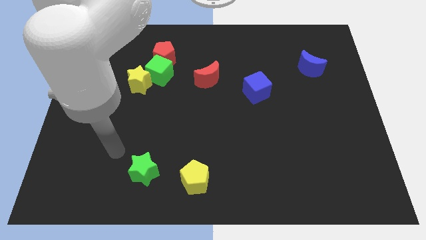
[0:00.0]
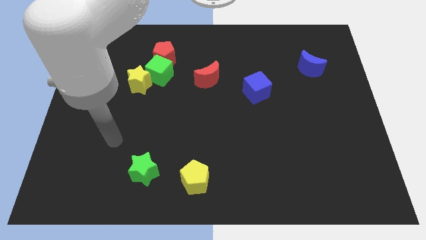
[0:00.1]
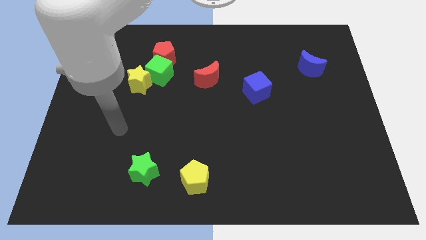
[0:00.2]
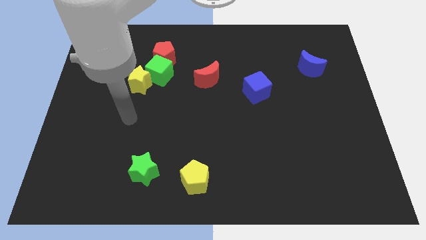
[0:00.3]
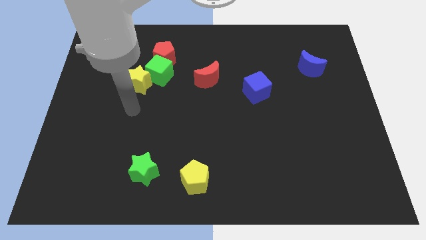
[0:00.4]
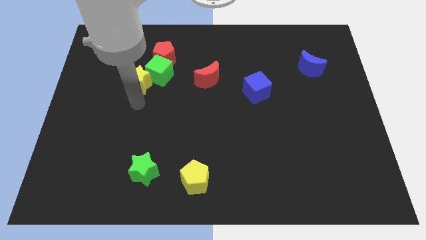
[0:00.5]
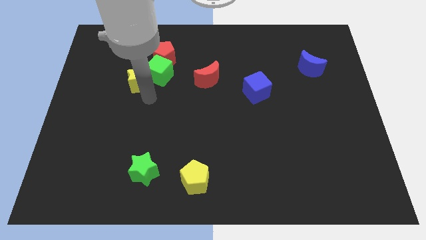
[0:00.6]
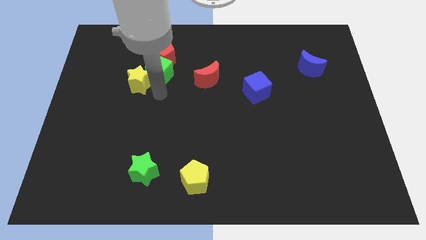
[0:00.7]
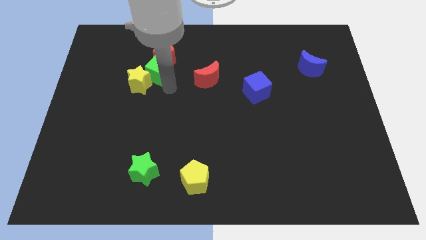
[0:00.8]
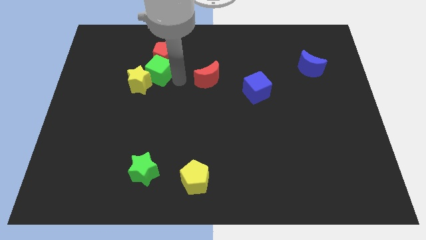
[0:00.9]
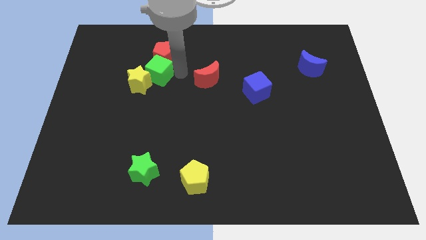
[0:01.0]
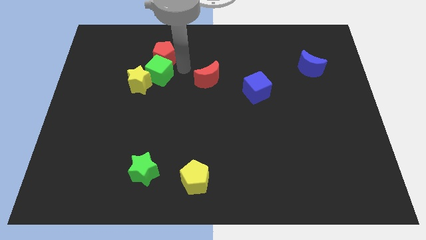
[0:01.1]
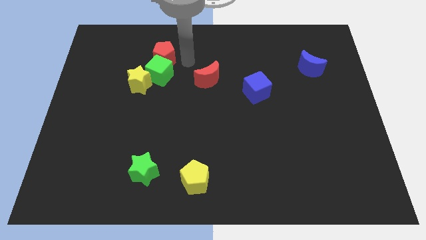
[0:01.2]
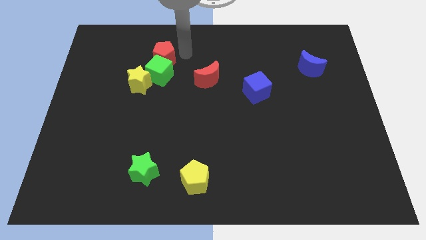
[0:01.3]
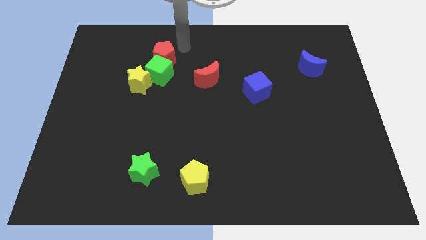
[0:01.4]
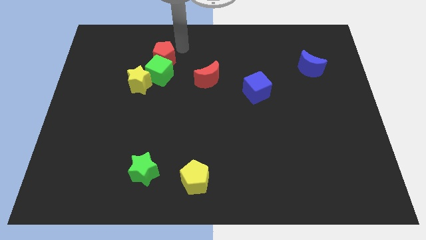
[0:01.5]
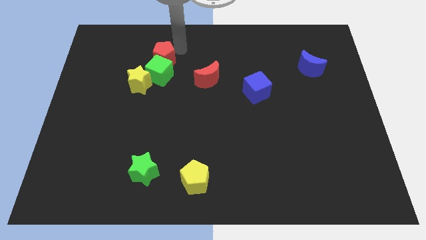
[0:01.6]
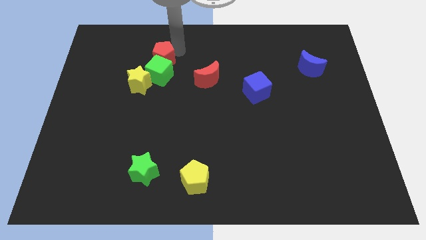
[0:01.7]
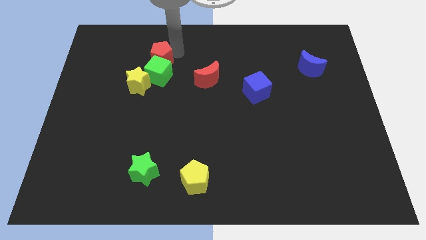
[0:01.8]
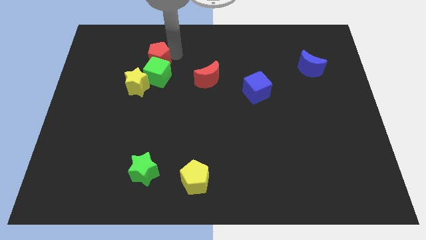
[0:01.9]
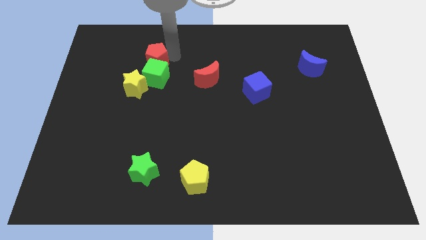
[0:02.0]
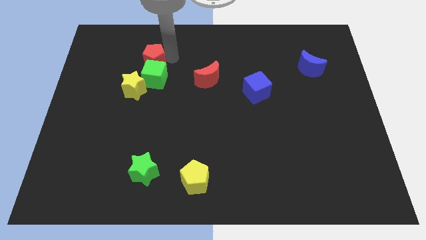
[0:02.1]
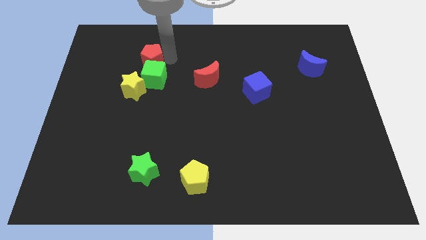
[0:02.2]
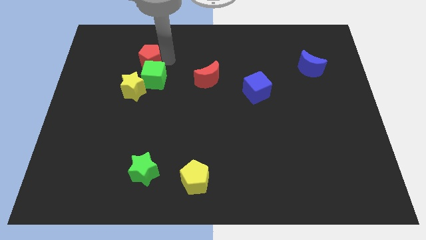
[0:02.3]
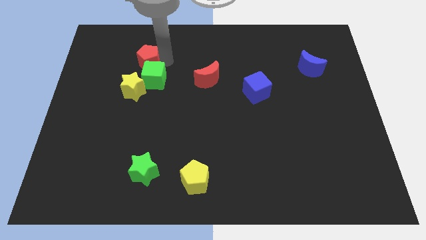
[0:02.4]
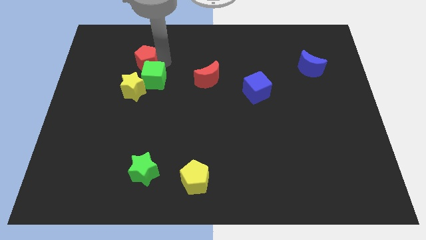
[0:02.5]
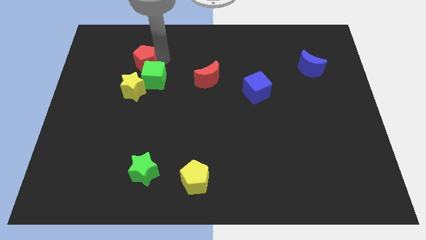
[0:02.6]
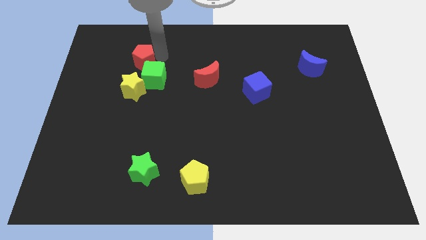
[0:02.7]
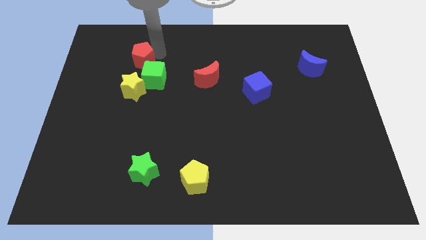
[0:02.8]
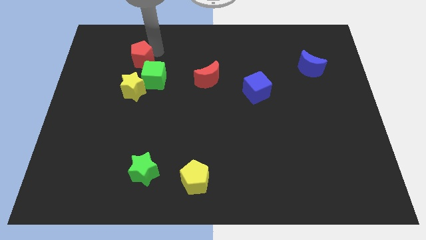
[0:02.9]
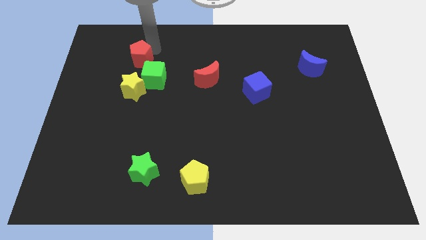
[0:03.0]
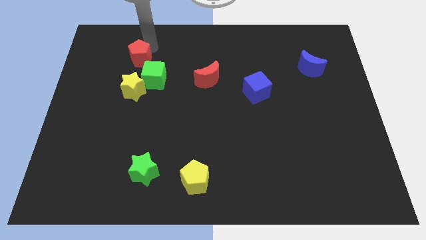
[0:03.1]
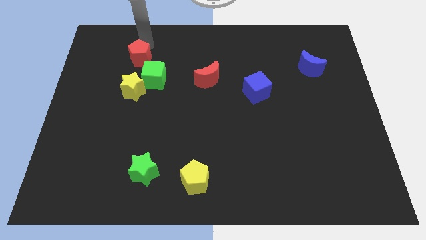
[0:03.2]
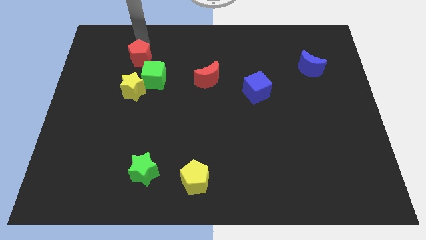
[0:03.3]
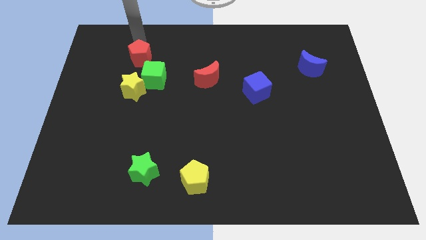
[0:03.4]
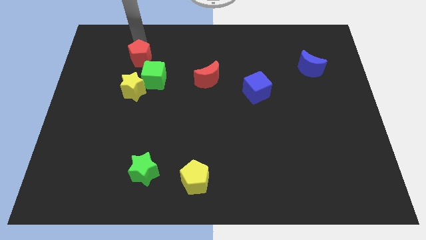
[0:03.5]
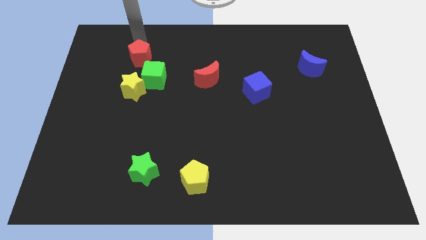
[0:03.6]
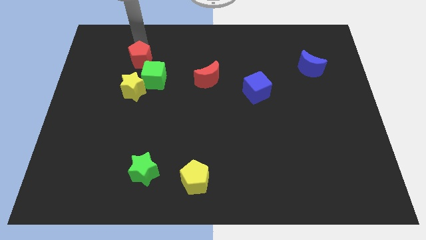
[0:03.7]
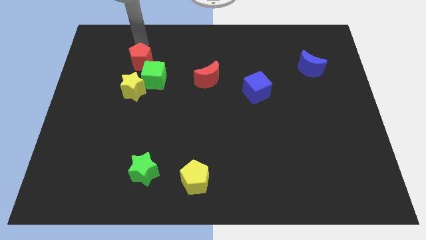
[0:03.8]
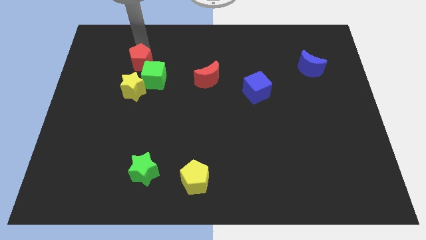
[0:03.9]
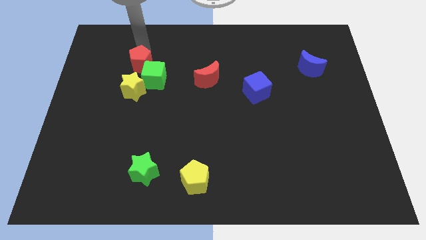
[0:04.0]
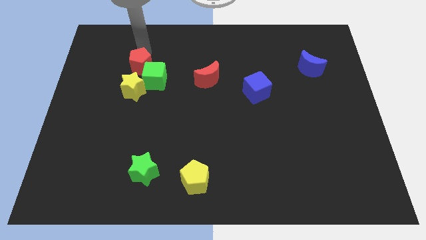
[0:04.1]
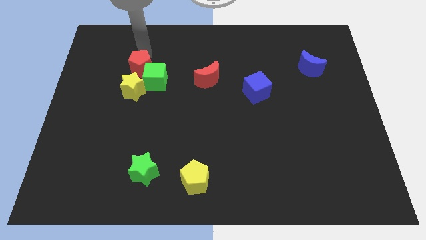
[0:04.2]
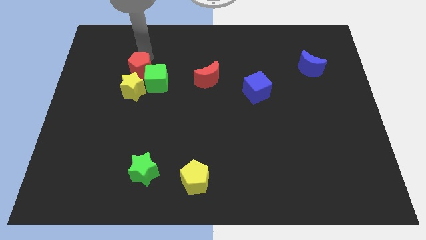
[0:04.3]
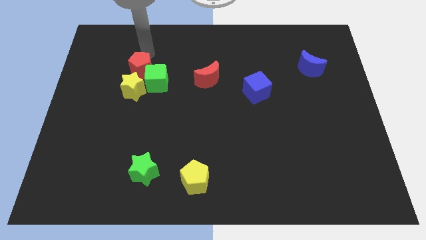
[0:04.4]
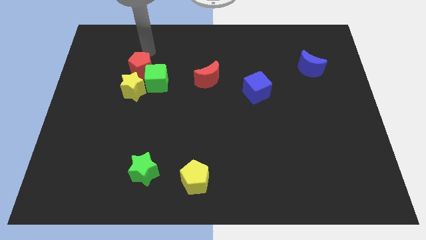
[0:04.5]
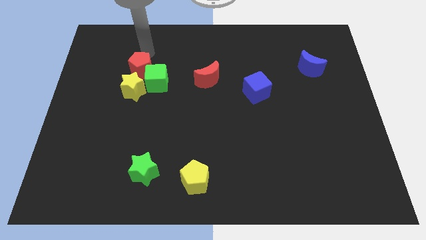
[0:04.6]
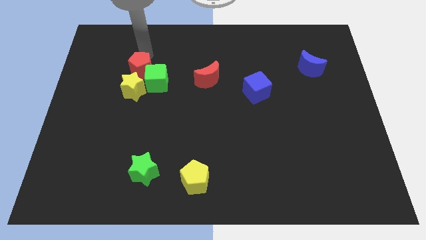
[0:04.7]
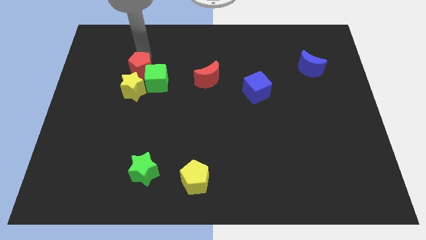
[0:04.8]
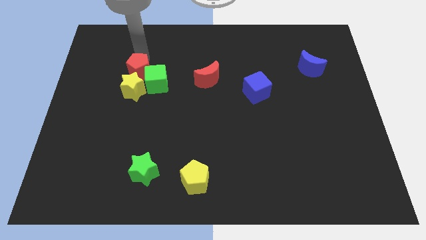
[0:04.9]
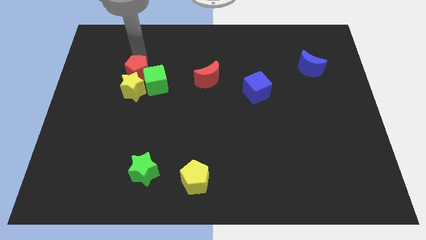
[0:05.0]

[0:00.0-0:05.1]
put the red pentagon towards the yellow star

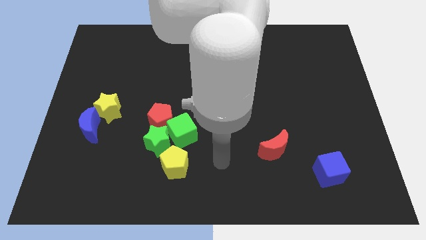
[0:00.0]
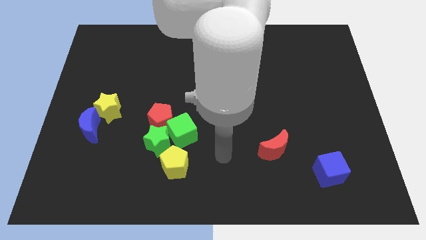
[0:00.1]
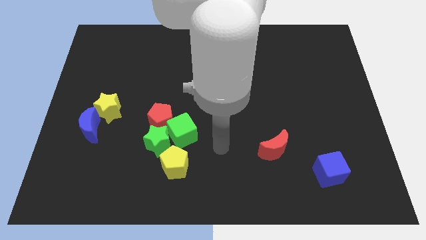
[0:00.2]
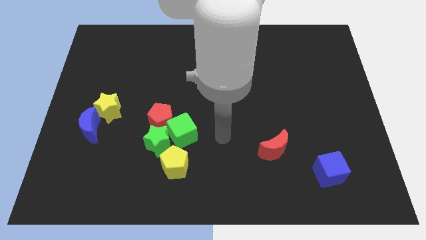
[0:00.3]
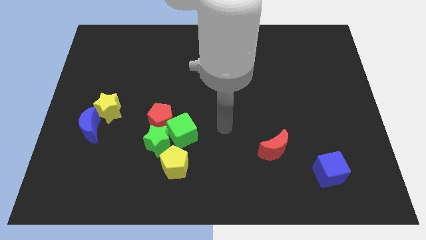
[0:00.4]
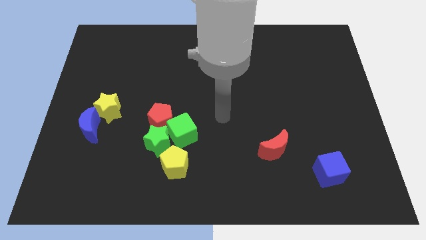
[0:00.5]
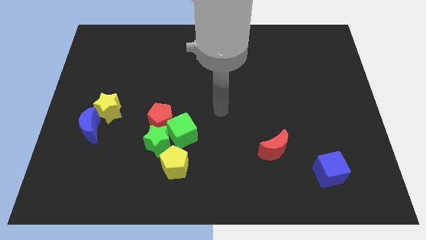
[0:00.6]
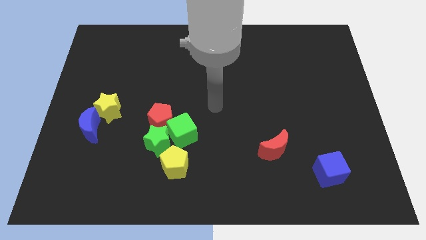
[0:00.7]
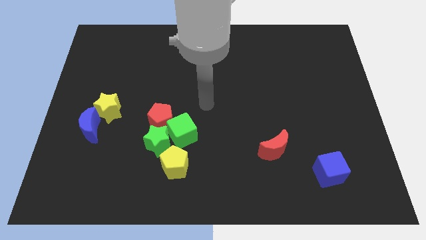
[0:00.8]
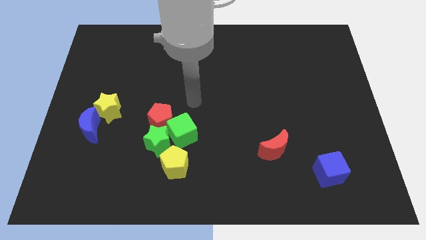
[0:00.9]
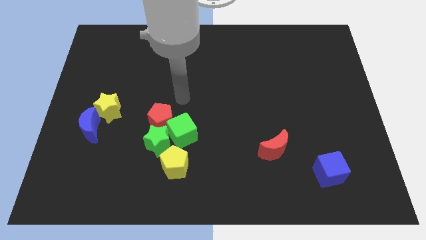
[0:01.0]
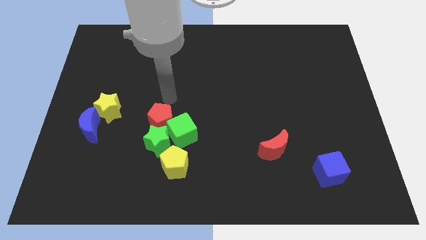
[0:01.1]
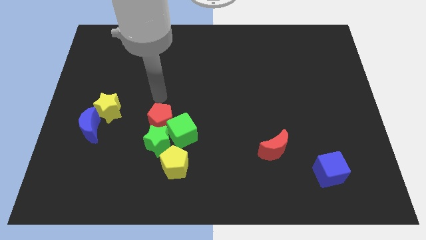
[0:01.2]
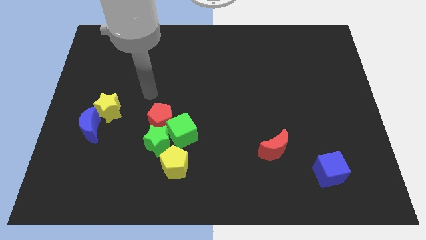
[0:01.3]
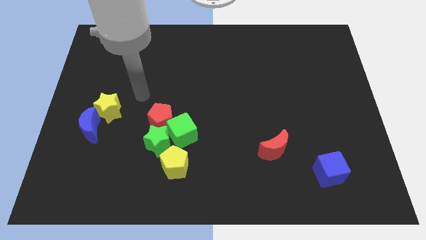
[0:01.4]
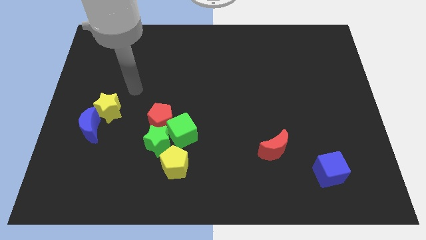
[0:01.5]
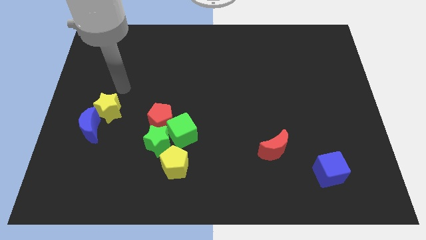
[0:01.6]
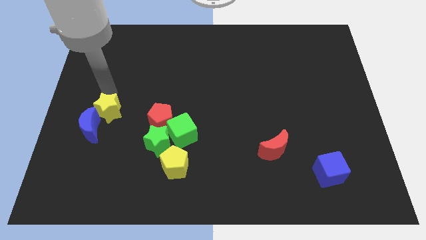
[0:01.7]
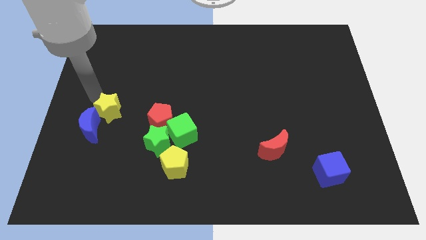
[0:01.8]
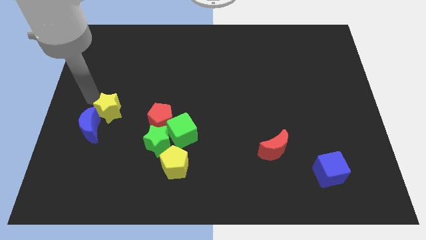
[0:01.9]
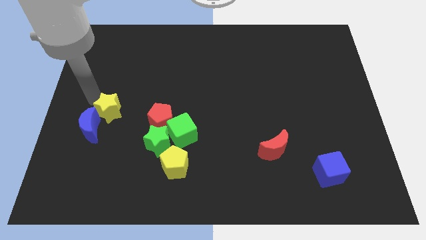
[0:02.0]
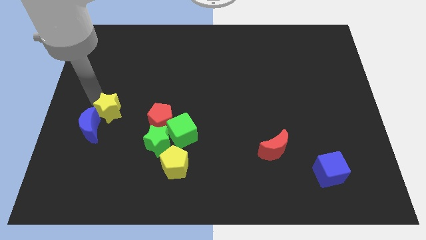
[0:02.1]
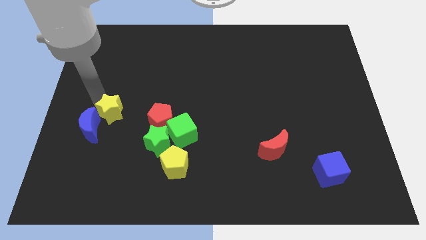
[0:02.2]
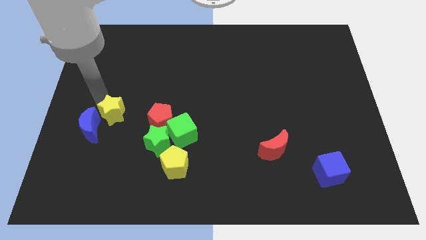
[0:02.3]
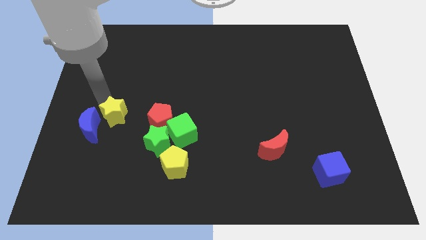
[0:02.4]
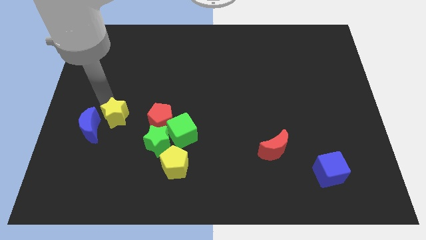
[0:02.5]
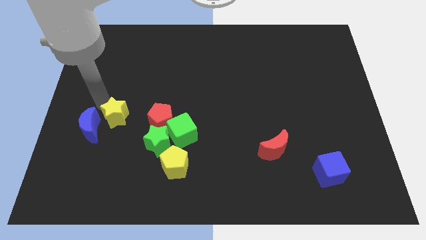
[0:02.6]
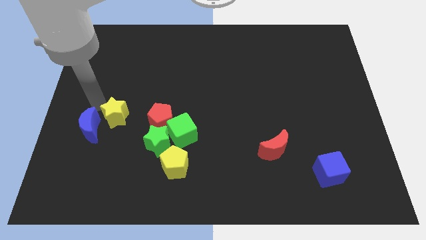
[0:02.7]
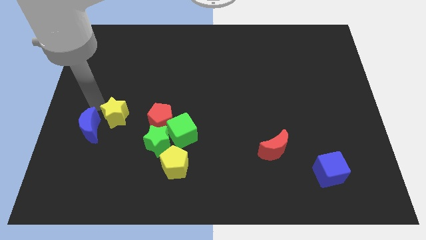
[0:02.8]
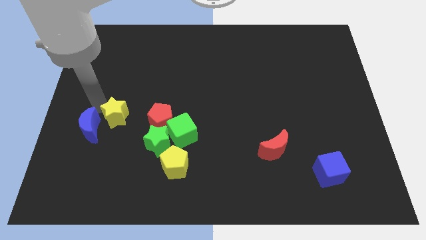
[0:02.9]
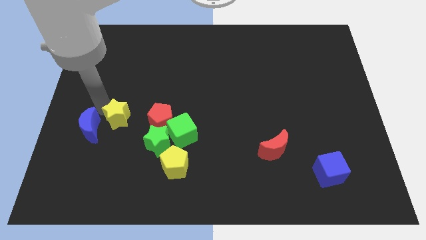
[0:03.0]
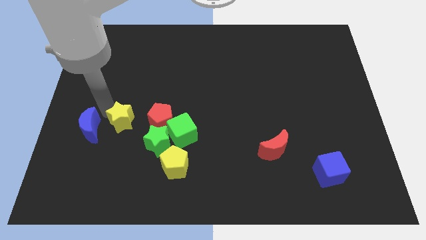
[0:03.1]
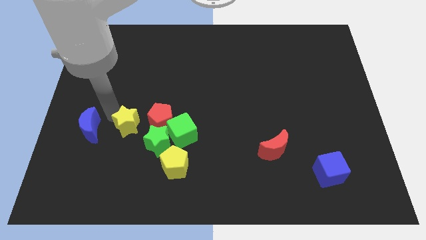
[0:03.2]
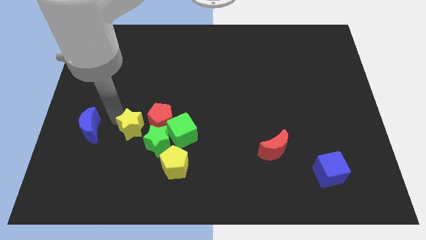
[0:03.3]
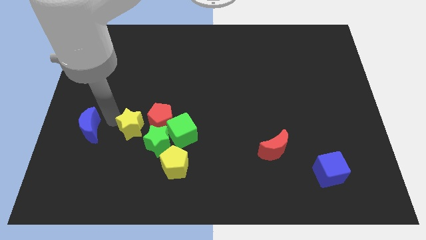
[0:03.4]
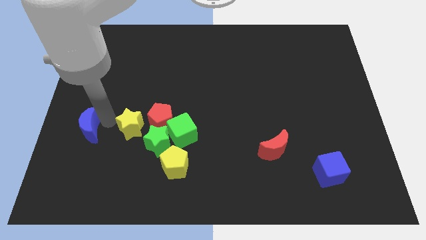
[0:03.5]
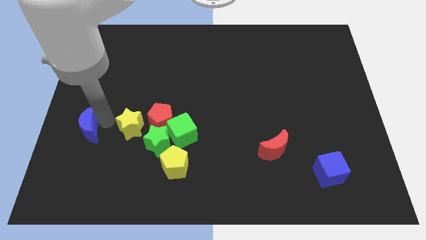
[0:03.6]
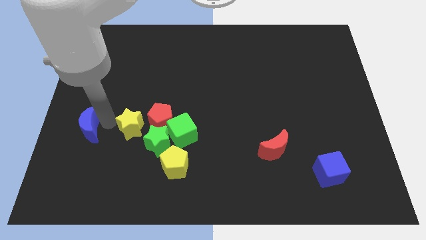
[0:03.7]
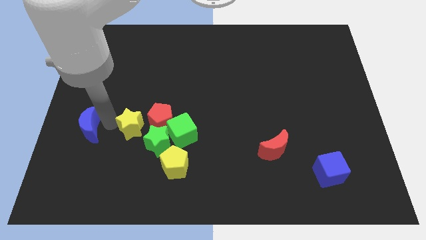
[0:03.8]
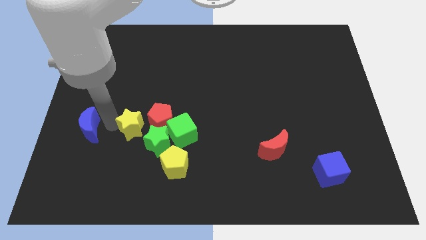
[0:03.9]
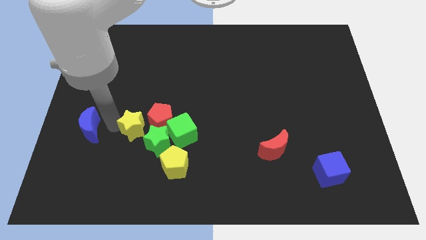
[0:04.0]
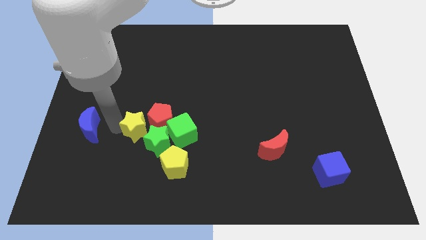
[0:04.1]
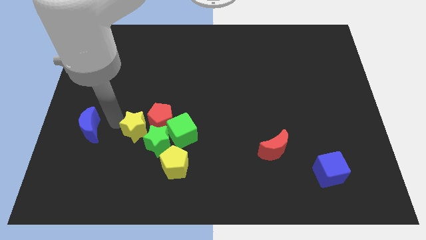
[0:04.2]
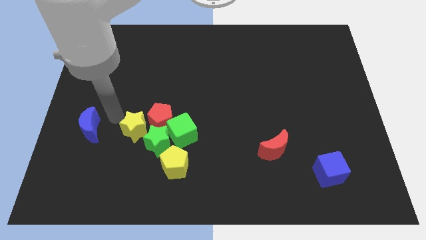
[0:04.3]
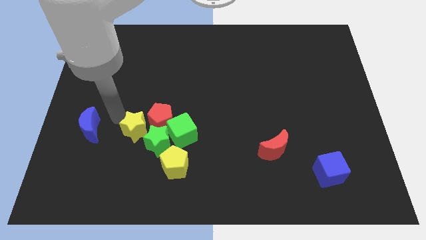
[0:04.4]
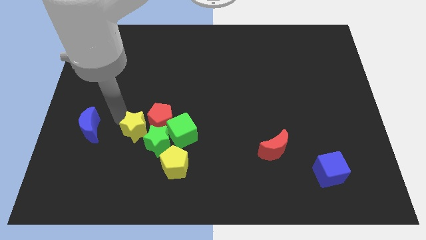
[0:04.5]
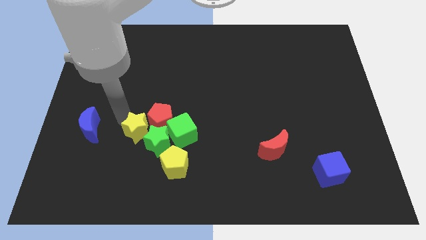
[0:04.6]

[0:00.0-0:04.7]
slide the yellow star close to the green star
